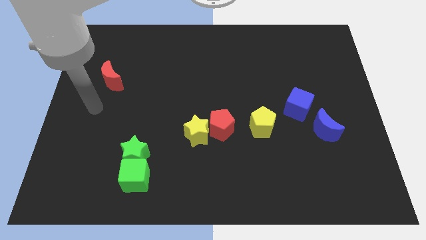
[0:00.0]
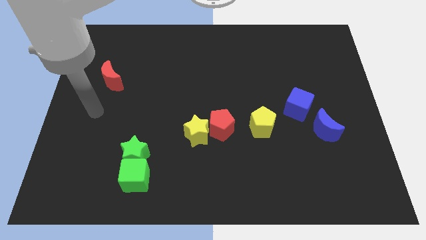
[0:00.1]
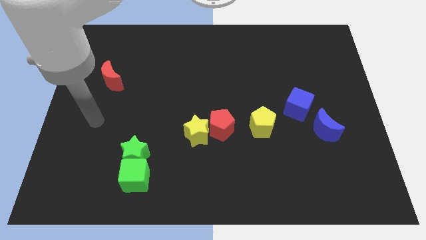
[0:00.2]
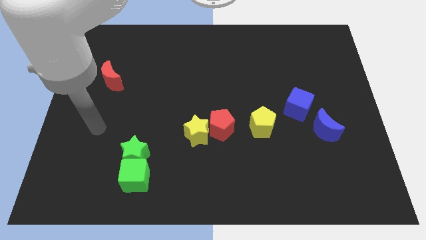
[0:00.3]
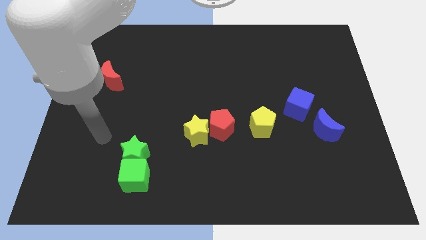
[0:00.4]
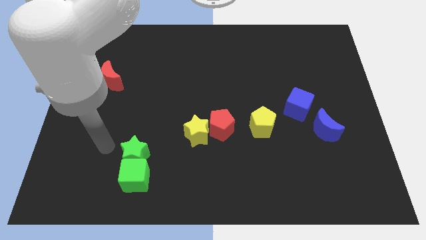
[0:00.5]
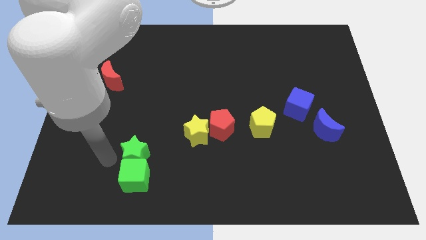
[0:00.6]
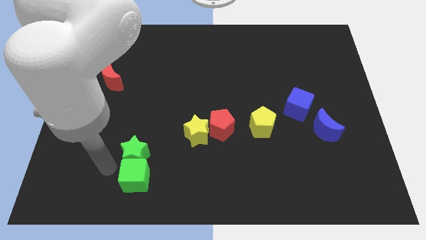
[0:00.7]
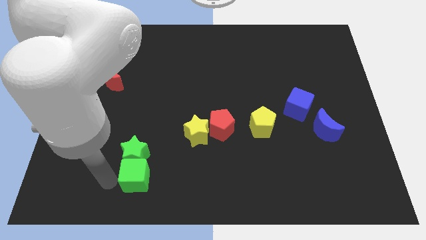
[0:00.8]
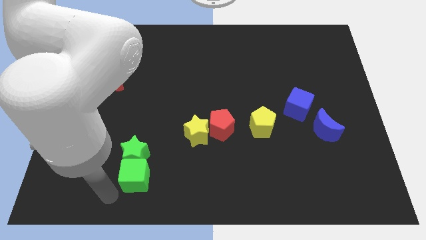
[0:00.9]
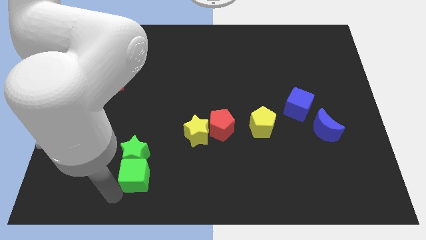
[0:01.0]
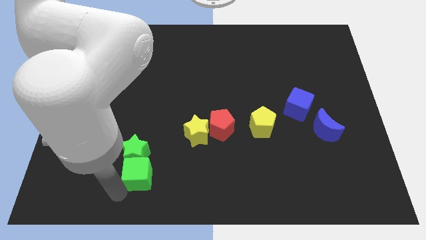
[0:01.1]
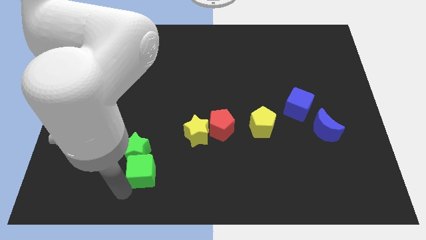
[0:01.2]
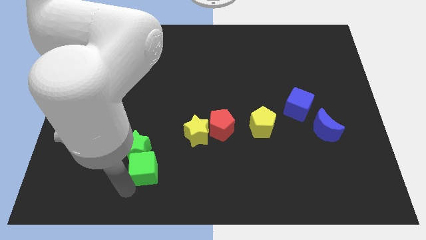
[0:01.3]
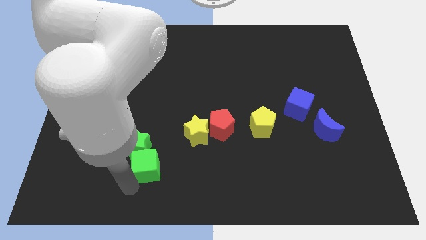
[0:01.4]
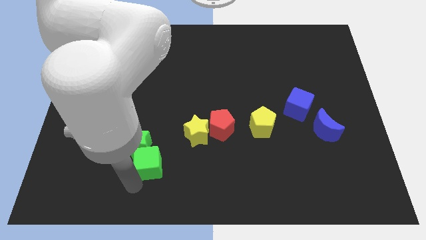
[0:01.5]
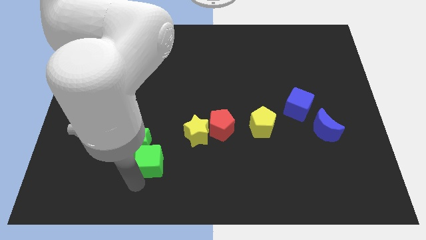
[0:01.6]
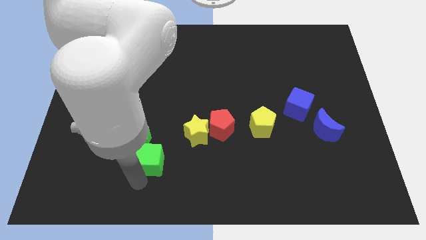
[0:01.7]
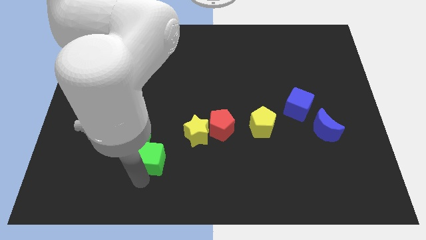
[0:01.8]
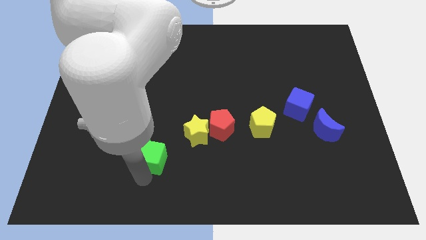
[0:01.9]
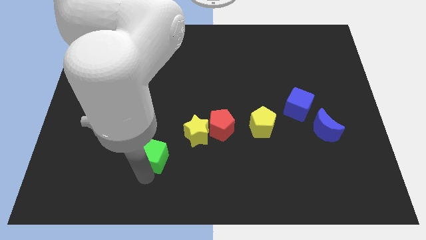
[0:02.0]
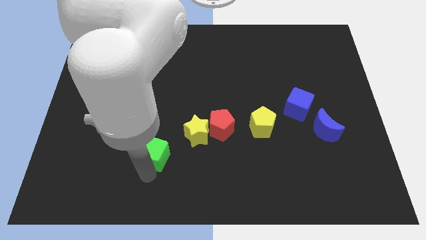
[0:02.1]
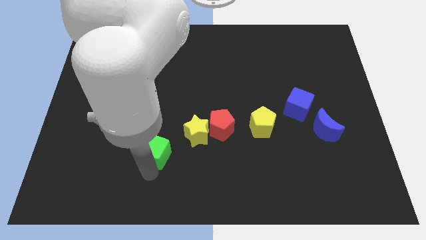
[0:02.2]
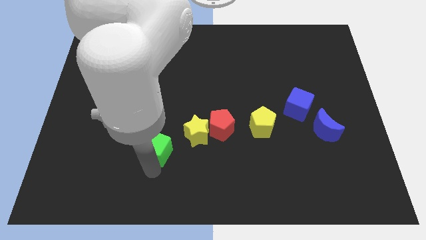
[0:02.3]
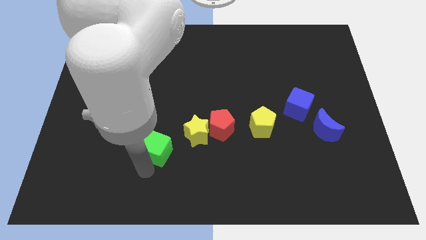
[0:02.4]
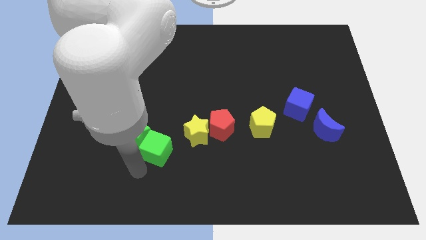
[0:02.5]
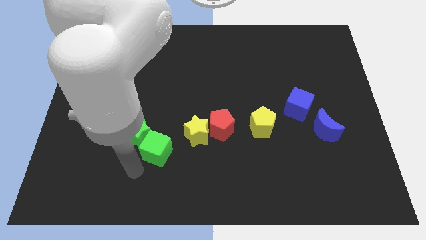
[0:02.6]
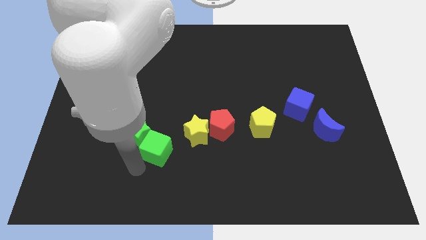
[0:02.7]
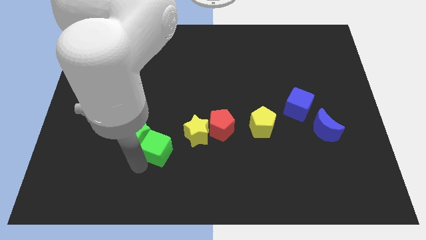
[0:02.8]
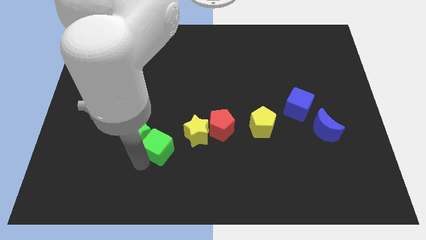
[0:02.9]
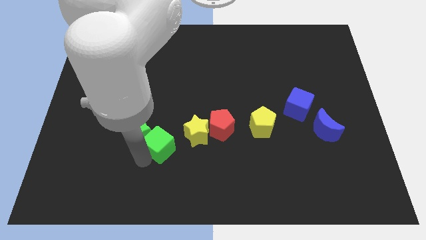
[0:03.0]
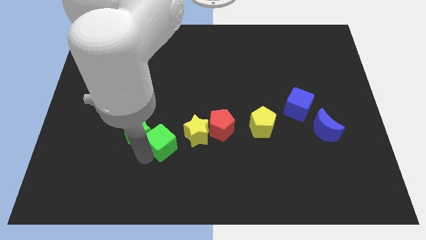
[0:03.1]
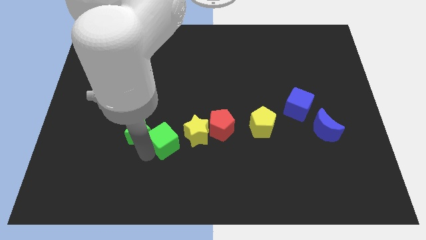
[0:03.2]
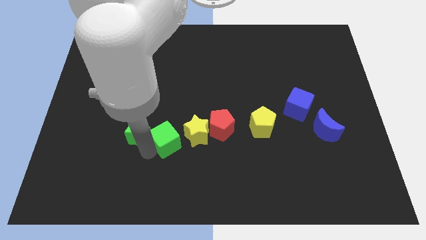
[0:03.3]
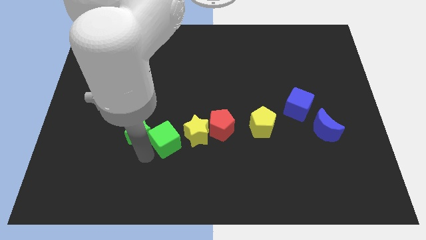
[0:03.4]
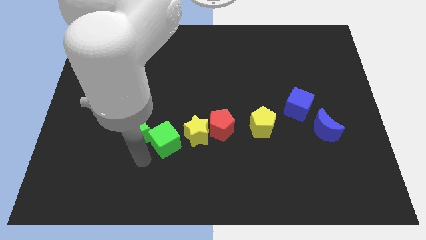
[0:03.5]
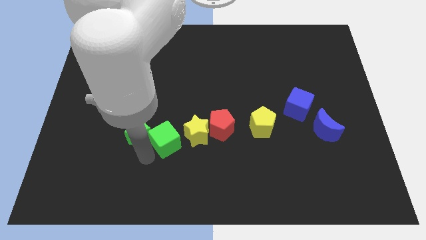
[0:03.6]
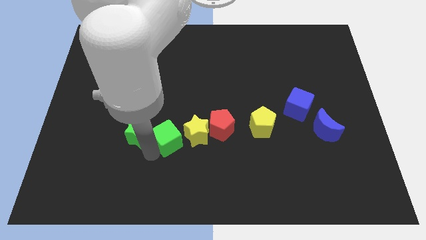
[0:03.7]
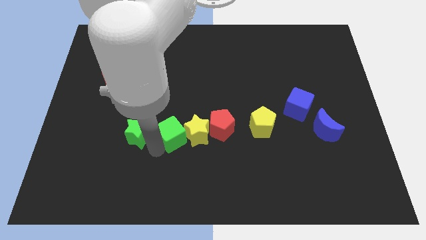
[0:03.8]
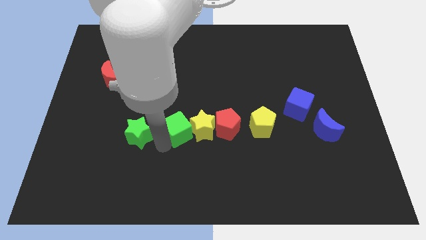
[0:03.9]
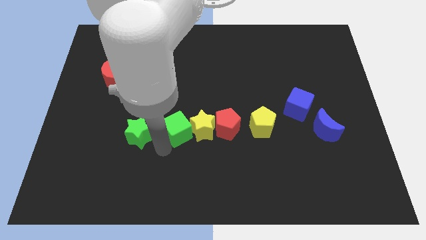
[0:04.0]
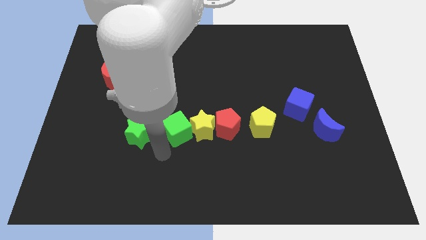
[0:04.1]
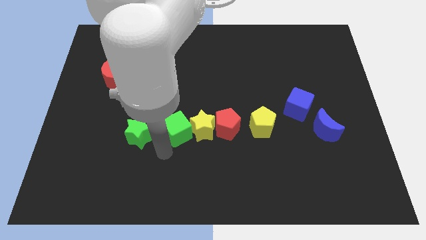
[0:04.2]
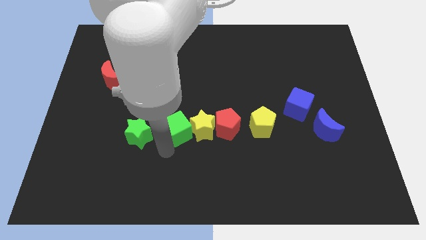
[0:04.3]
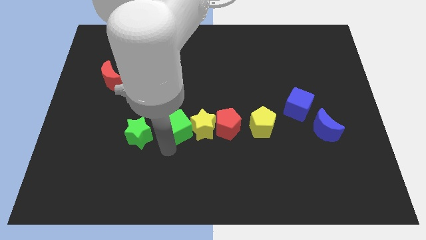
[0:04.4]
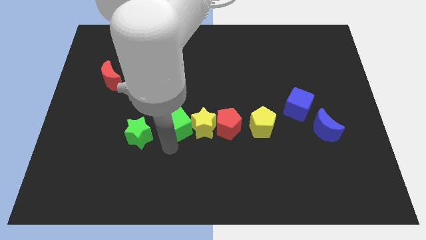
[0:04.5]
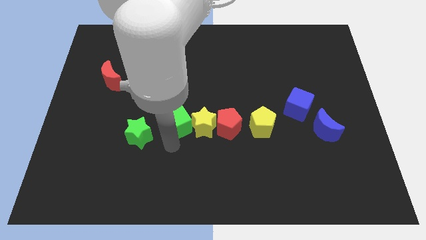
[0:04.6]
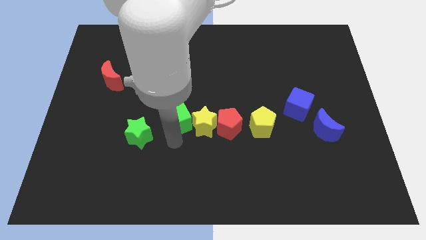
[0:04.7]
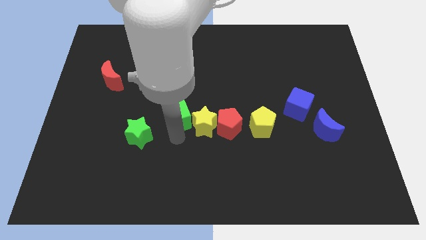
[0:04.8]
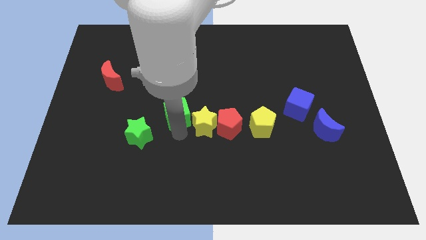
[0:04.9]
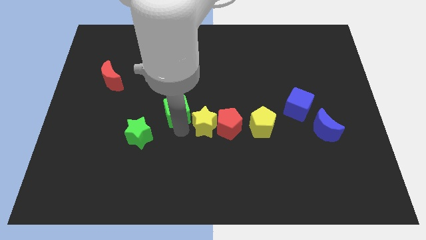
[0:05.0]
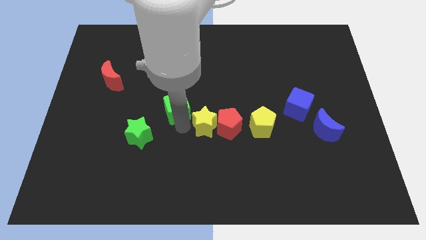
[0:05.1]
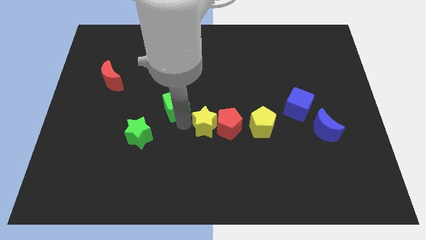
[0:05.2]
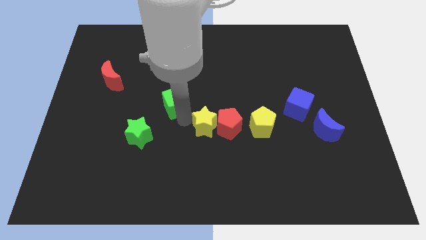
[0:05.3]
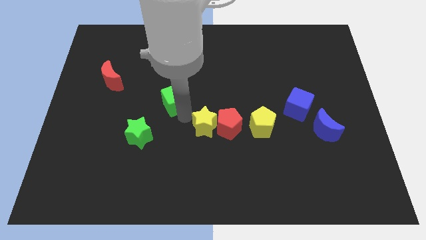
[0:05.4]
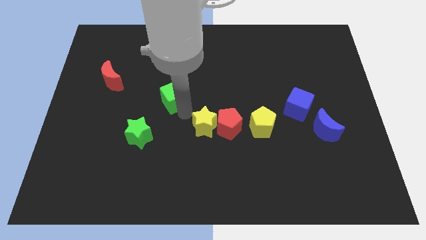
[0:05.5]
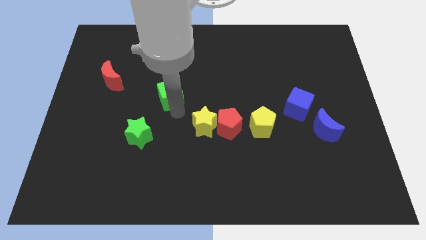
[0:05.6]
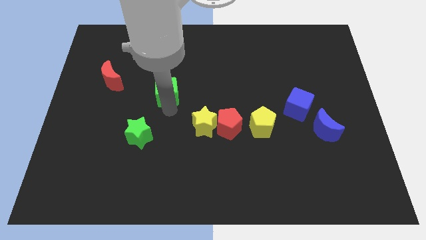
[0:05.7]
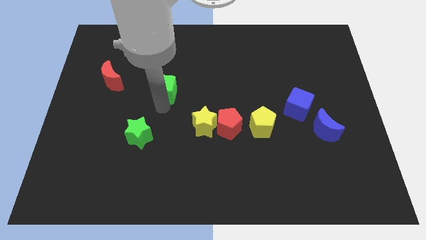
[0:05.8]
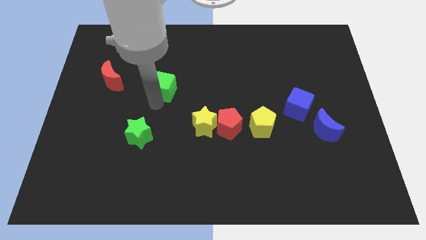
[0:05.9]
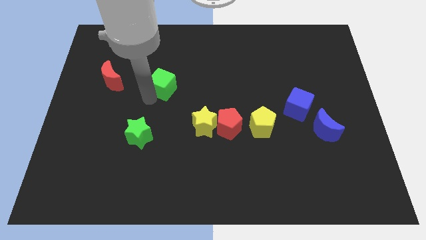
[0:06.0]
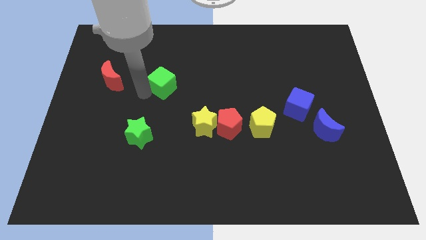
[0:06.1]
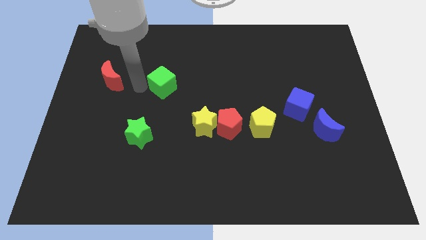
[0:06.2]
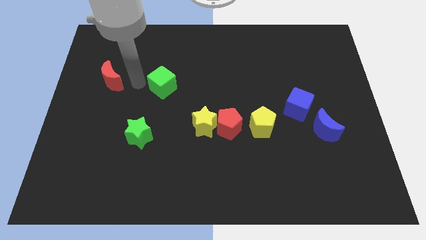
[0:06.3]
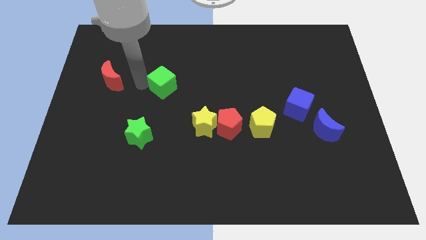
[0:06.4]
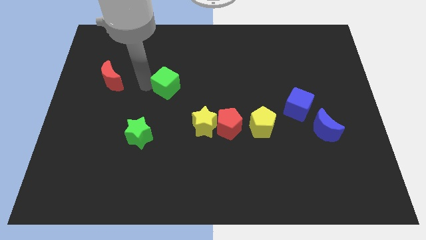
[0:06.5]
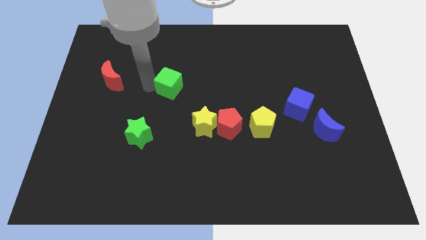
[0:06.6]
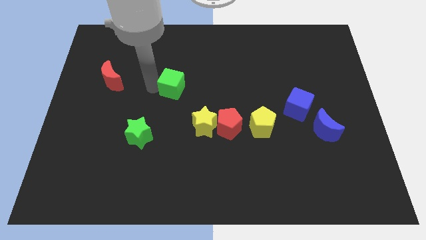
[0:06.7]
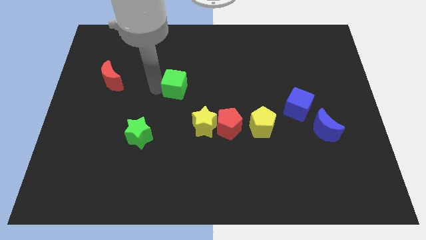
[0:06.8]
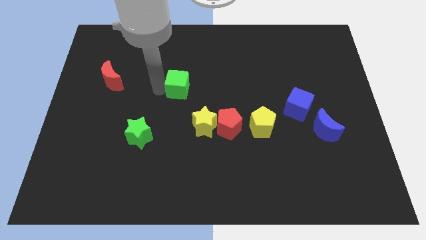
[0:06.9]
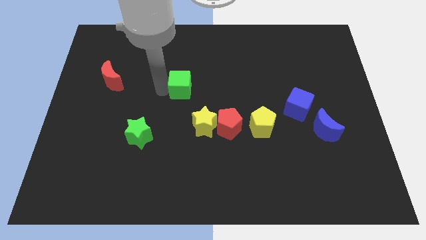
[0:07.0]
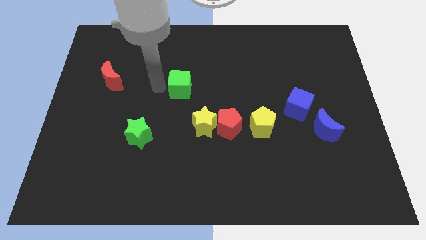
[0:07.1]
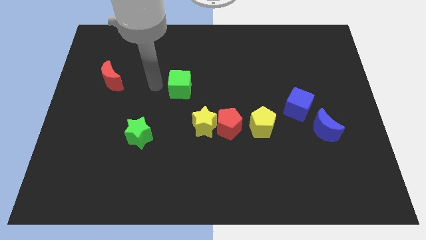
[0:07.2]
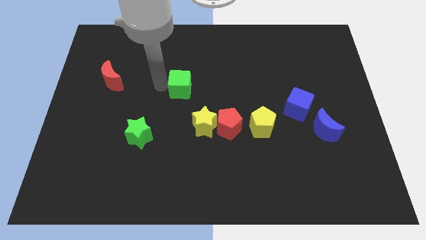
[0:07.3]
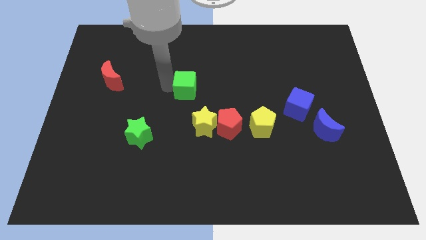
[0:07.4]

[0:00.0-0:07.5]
move the green cube to the top of the yellow star
